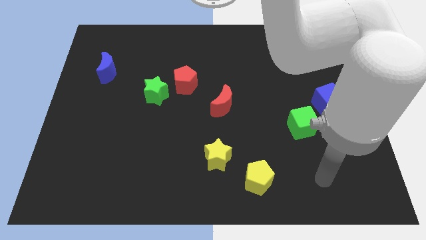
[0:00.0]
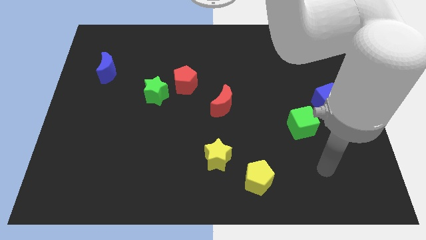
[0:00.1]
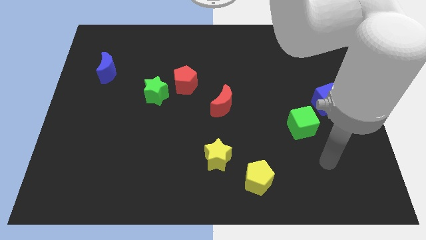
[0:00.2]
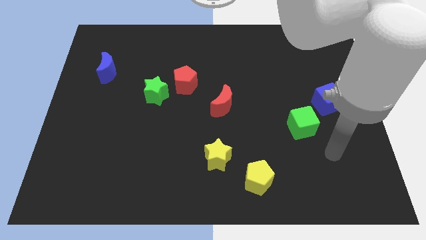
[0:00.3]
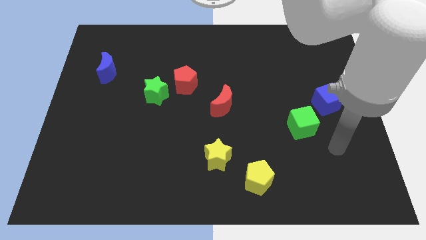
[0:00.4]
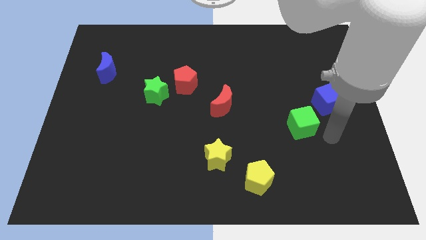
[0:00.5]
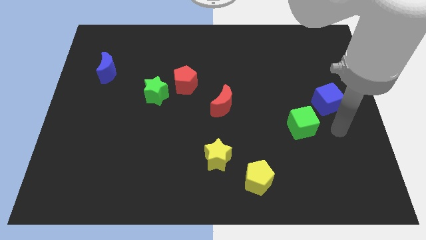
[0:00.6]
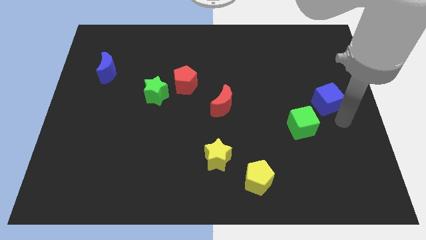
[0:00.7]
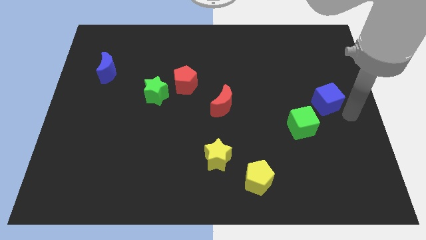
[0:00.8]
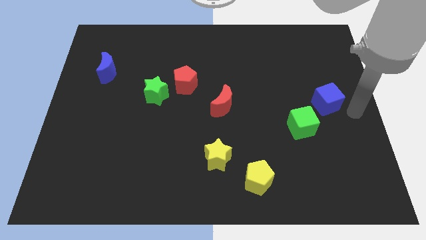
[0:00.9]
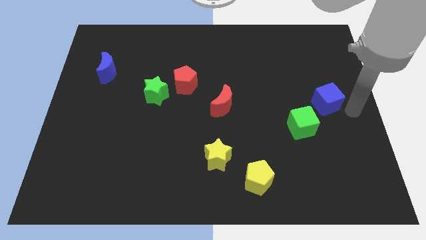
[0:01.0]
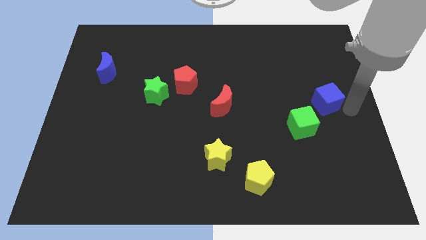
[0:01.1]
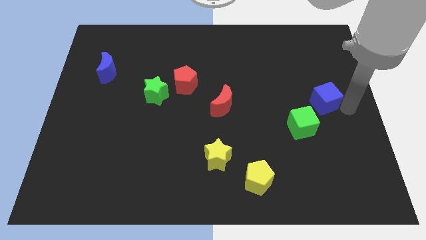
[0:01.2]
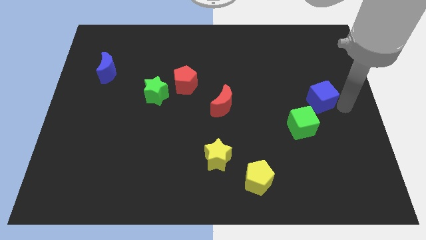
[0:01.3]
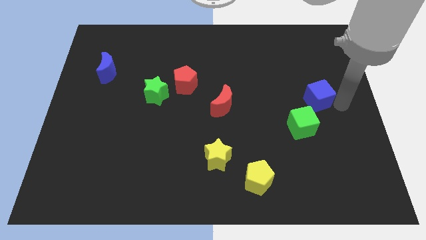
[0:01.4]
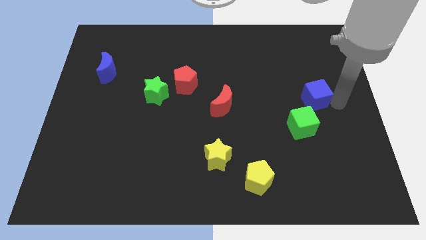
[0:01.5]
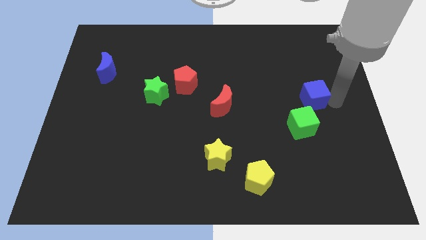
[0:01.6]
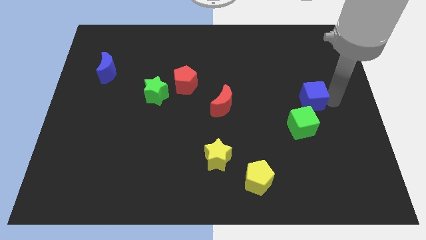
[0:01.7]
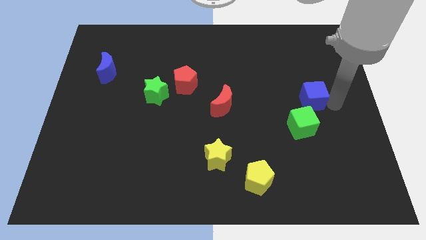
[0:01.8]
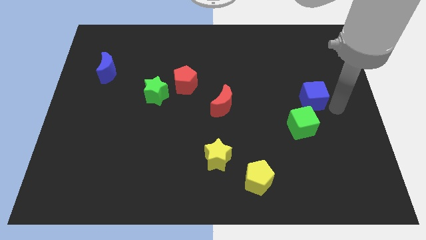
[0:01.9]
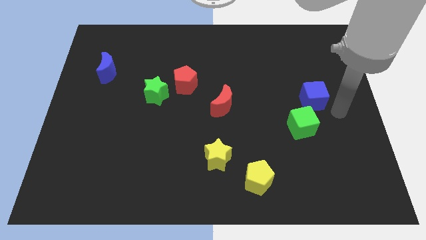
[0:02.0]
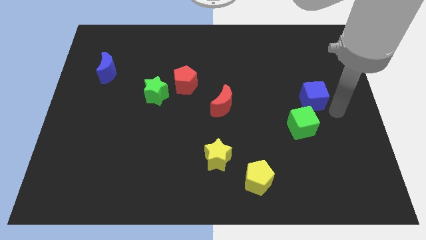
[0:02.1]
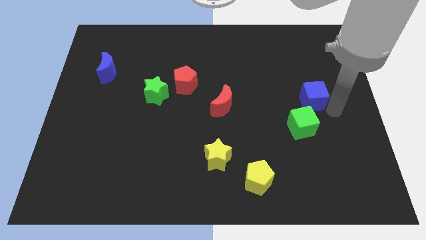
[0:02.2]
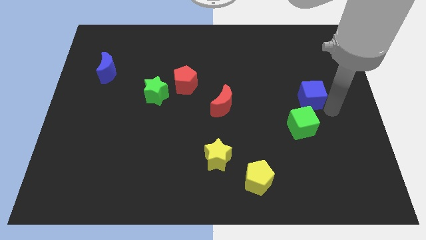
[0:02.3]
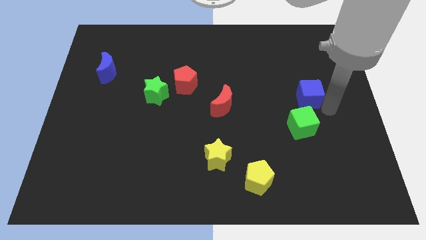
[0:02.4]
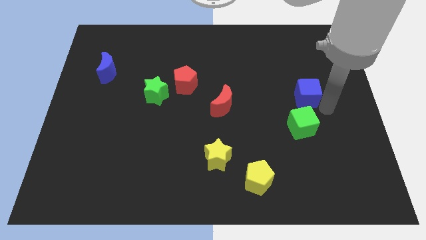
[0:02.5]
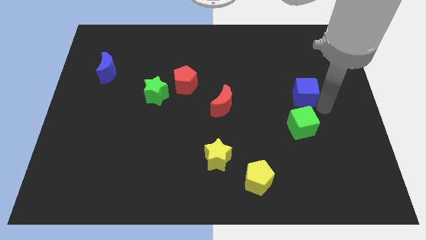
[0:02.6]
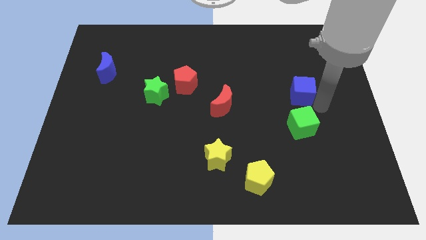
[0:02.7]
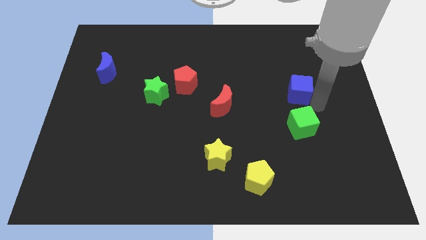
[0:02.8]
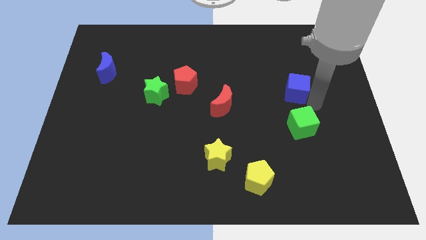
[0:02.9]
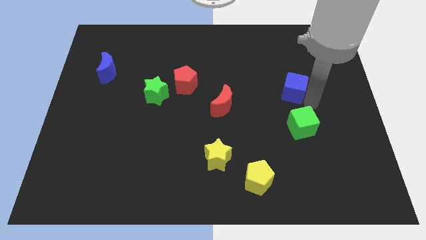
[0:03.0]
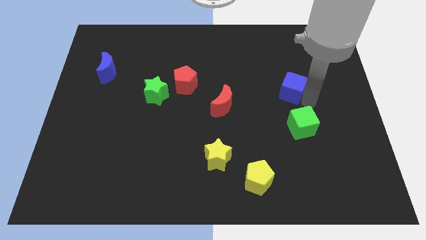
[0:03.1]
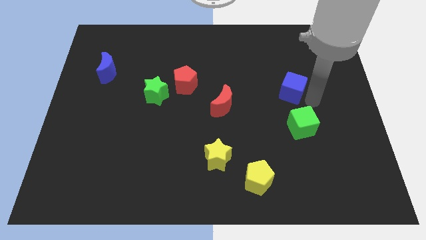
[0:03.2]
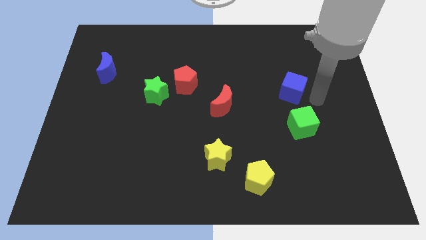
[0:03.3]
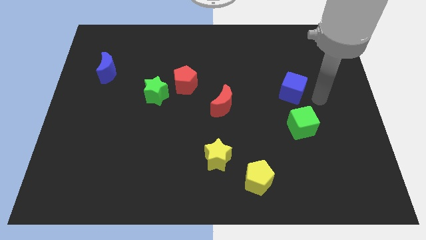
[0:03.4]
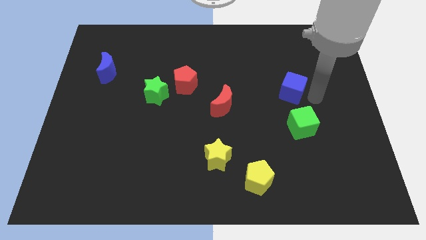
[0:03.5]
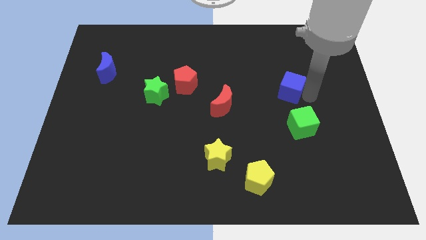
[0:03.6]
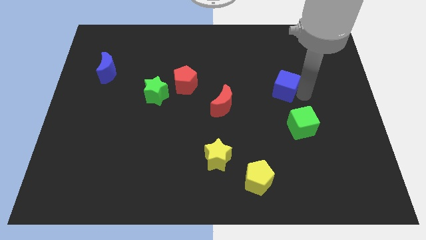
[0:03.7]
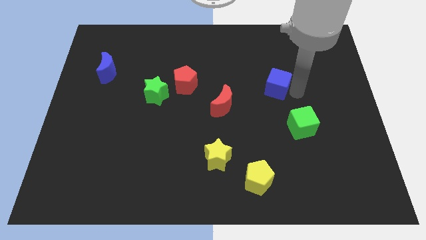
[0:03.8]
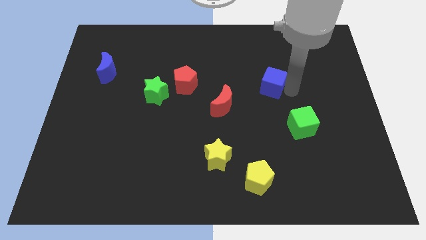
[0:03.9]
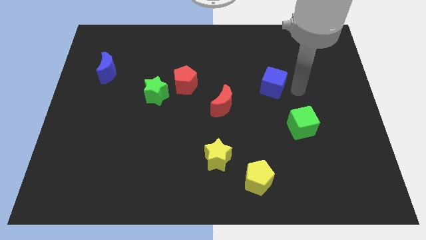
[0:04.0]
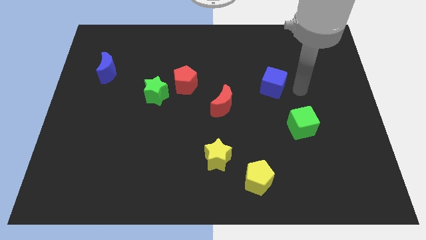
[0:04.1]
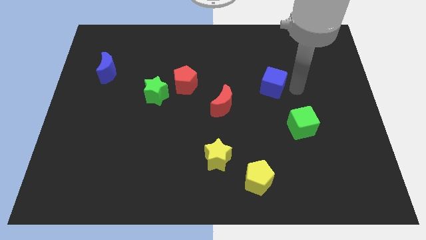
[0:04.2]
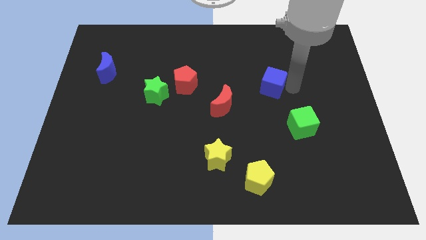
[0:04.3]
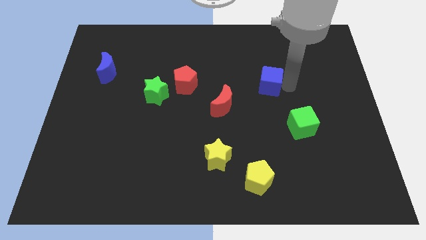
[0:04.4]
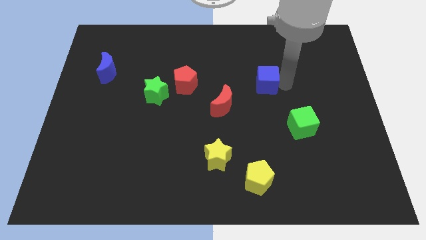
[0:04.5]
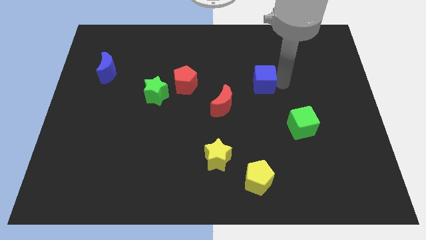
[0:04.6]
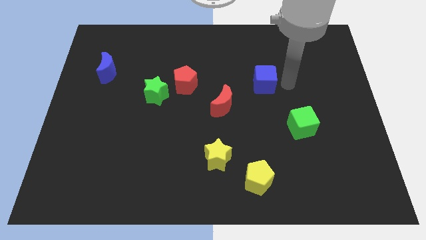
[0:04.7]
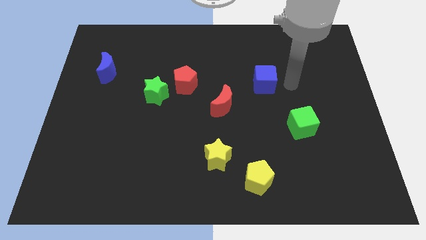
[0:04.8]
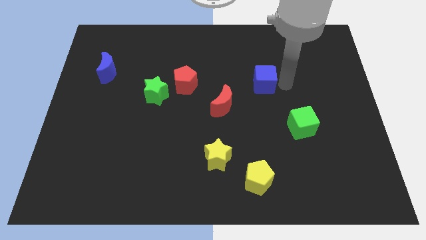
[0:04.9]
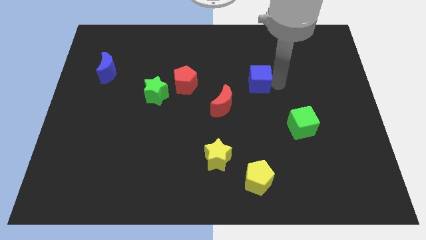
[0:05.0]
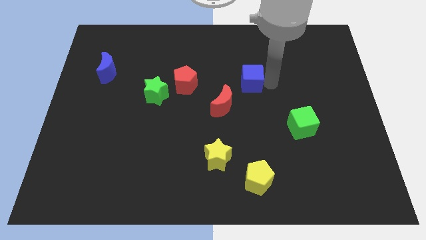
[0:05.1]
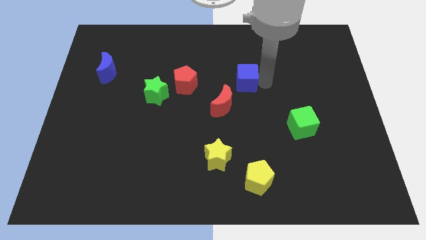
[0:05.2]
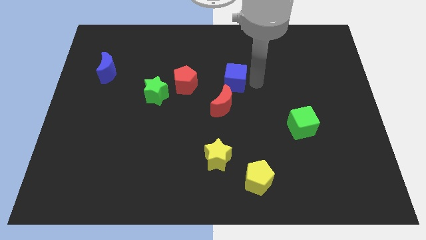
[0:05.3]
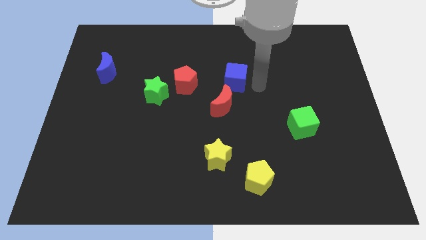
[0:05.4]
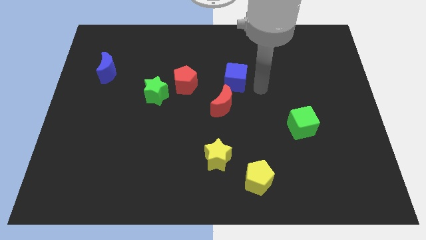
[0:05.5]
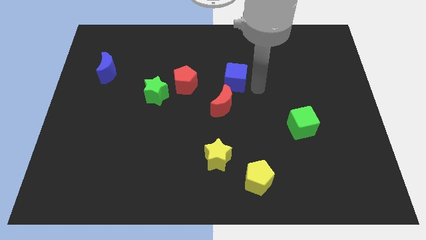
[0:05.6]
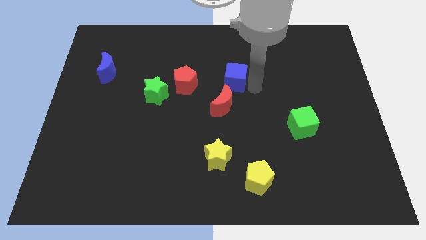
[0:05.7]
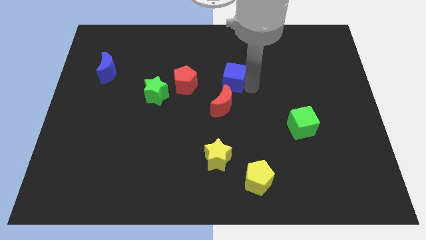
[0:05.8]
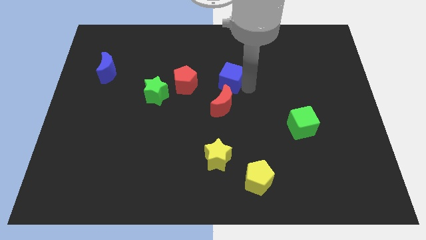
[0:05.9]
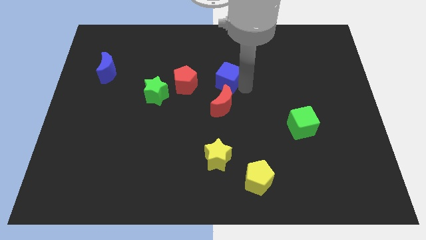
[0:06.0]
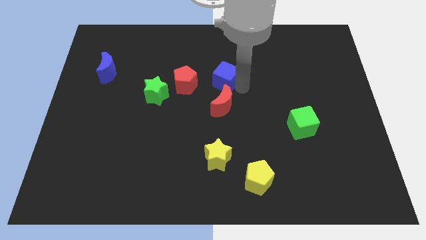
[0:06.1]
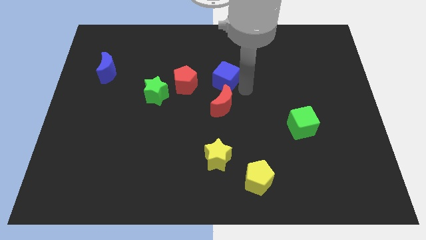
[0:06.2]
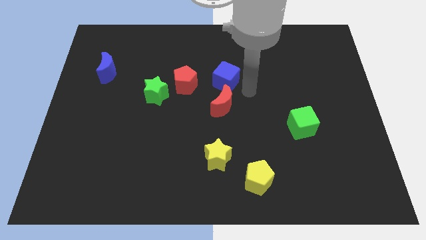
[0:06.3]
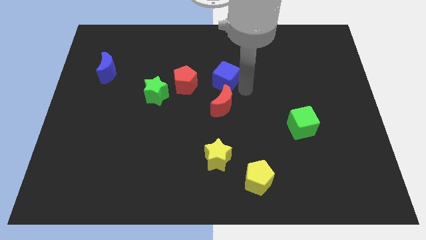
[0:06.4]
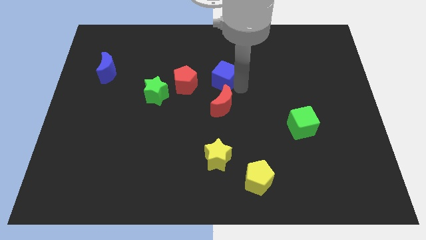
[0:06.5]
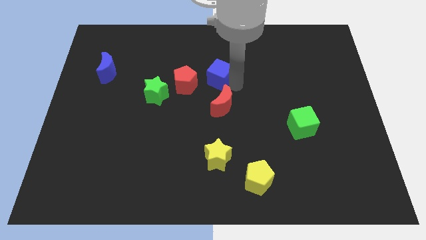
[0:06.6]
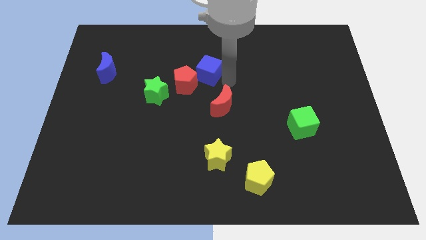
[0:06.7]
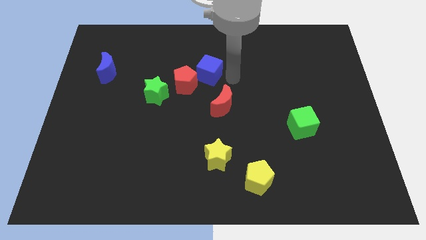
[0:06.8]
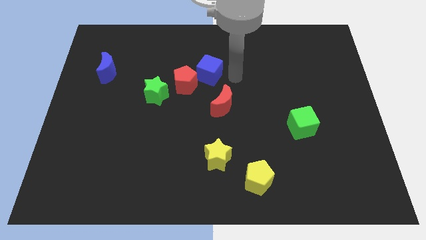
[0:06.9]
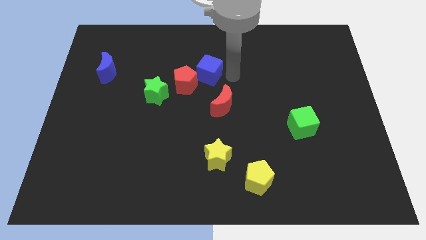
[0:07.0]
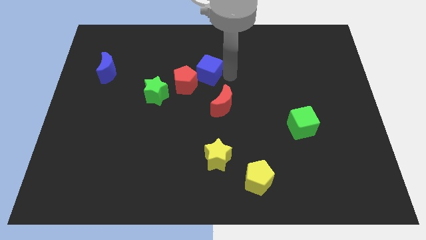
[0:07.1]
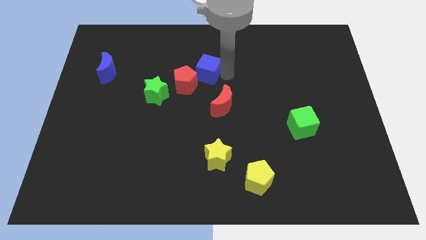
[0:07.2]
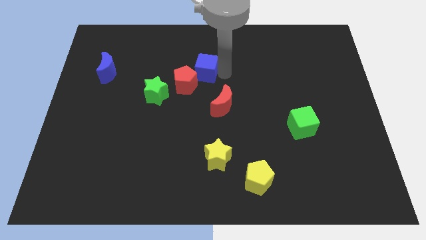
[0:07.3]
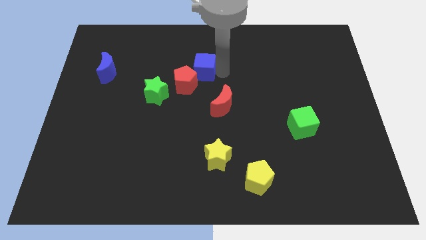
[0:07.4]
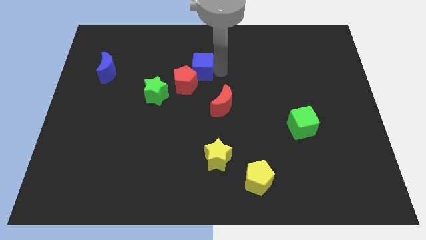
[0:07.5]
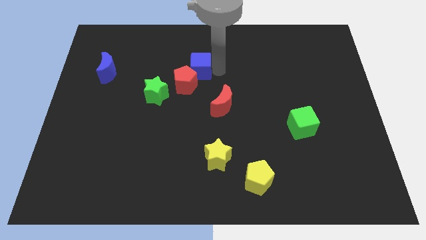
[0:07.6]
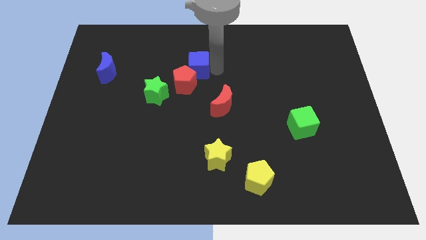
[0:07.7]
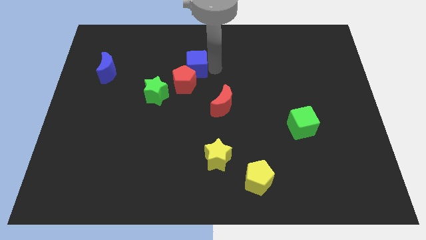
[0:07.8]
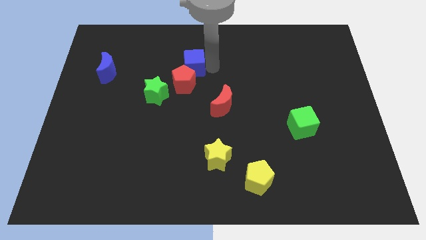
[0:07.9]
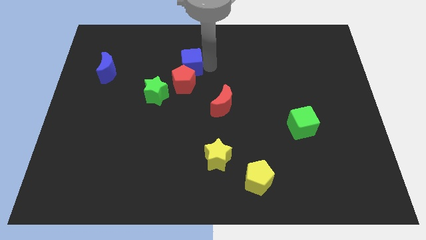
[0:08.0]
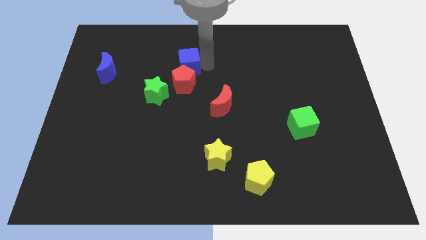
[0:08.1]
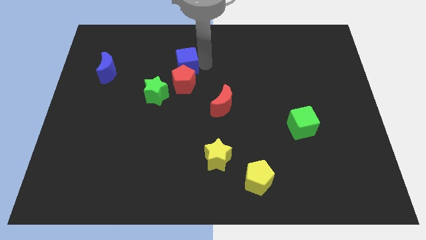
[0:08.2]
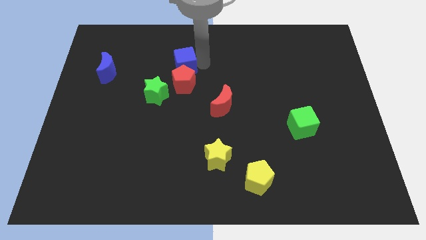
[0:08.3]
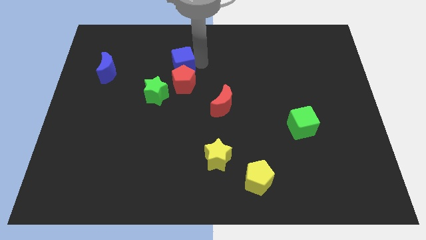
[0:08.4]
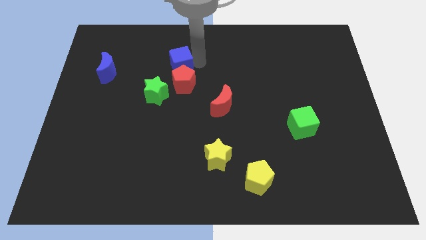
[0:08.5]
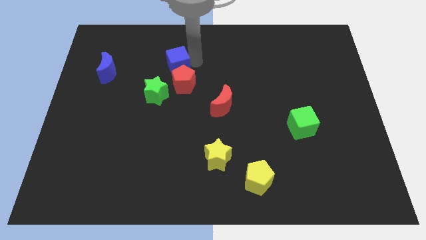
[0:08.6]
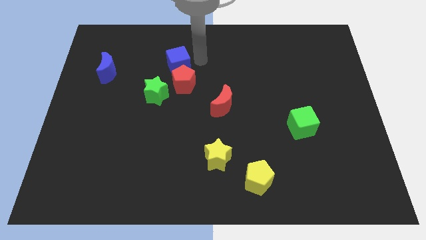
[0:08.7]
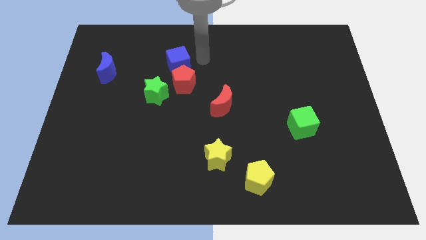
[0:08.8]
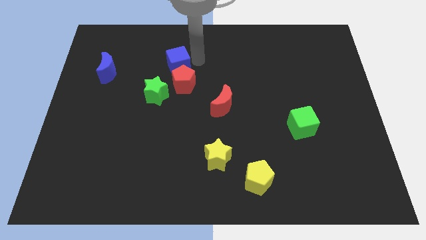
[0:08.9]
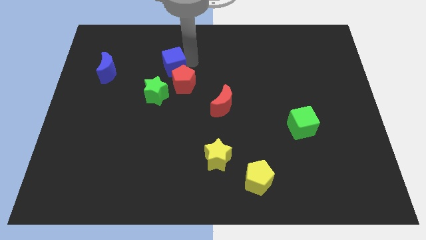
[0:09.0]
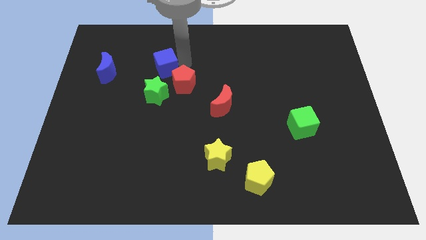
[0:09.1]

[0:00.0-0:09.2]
slide the blue cube to the right of the blue moon
